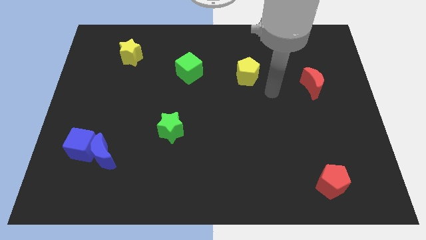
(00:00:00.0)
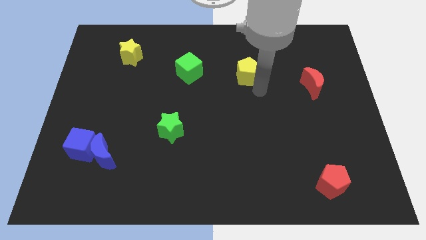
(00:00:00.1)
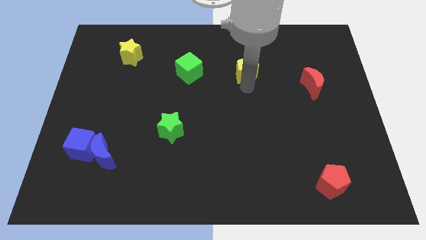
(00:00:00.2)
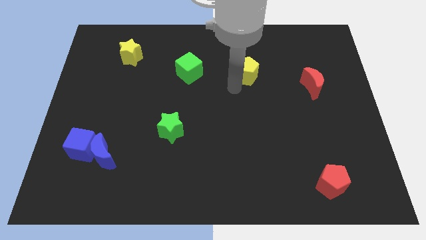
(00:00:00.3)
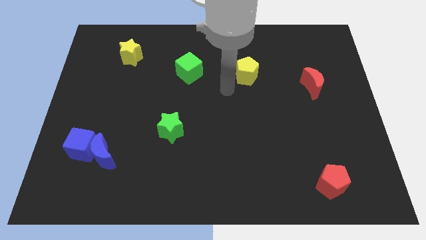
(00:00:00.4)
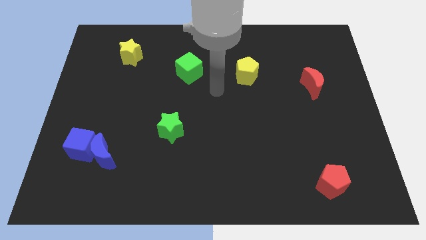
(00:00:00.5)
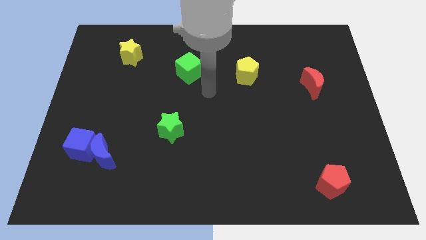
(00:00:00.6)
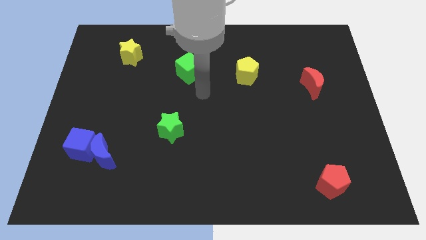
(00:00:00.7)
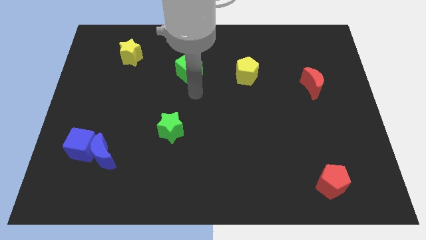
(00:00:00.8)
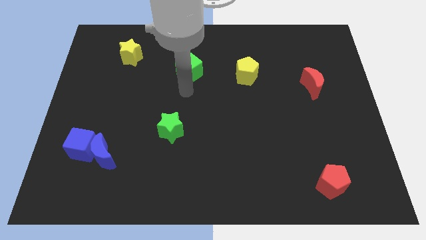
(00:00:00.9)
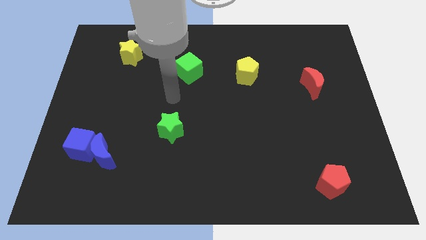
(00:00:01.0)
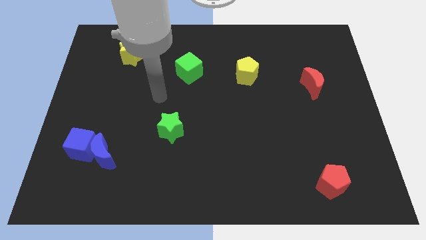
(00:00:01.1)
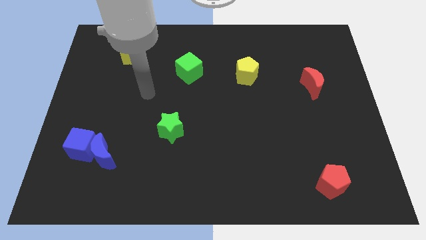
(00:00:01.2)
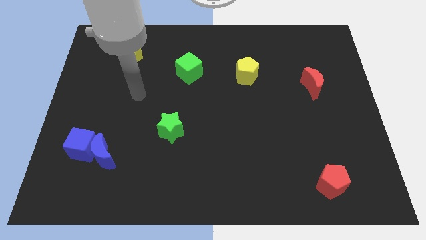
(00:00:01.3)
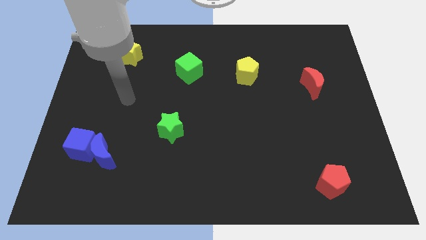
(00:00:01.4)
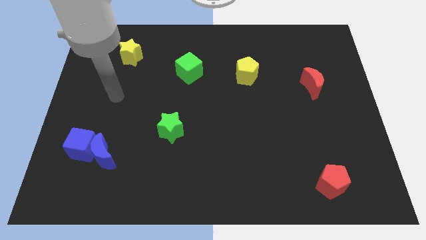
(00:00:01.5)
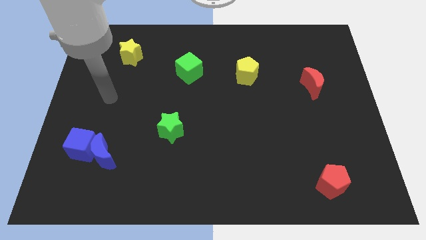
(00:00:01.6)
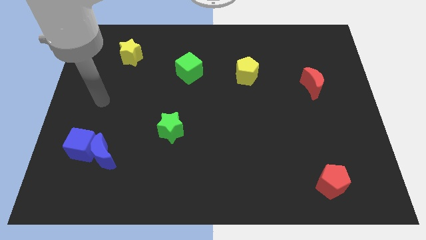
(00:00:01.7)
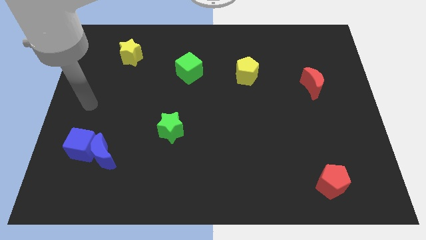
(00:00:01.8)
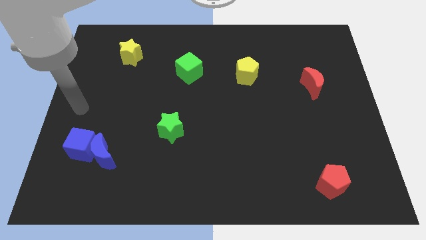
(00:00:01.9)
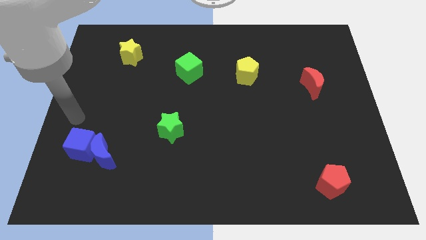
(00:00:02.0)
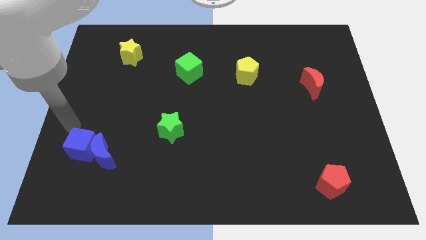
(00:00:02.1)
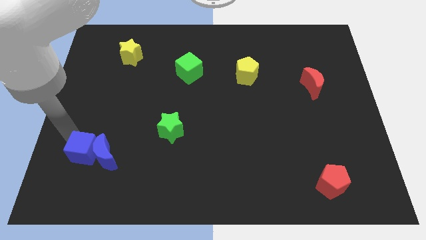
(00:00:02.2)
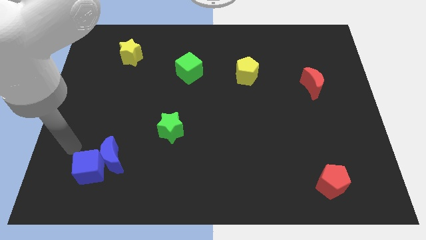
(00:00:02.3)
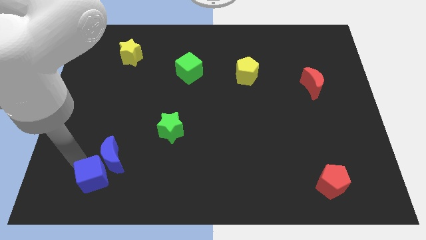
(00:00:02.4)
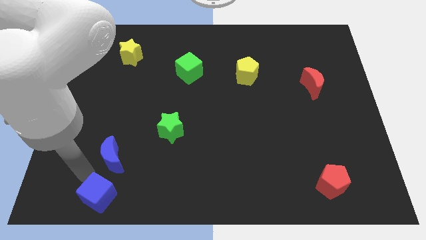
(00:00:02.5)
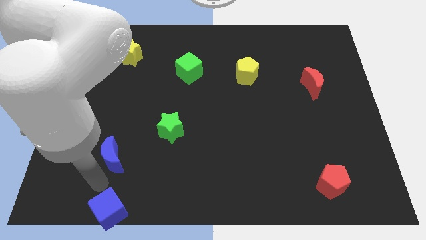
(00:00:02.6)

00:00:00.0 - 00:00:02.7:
pull the blue moon apart from the blue cube

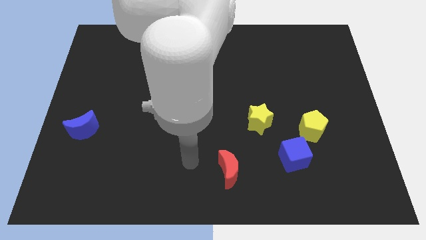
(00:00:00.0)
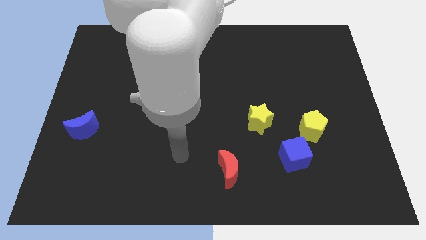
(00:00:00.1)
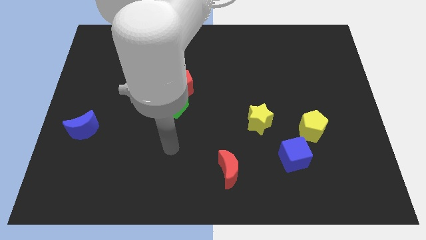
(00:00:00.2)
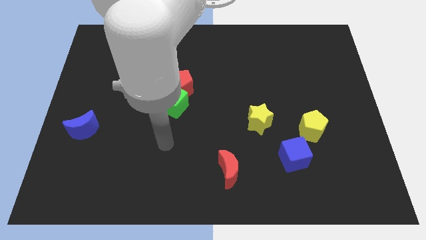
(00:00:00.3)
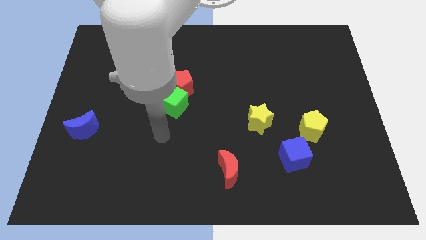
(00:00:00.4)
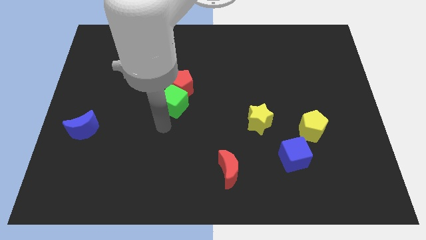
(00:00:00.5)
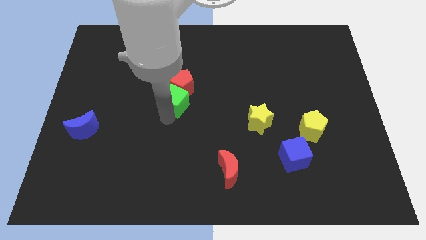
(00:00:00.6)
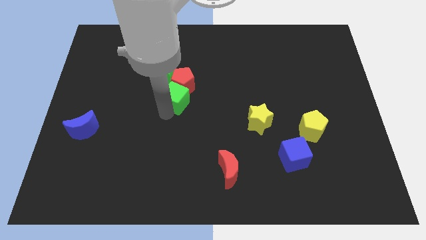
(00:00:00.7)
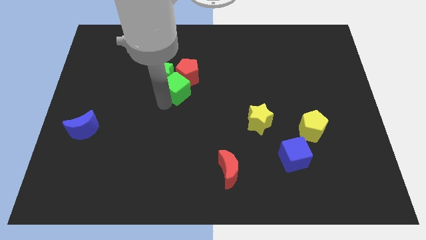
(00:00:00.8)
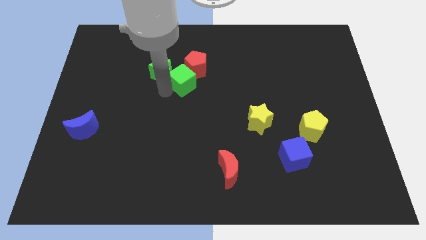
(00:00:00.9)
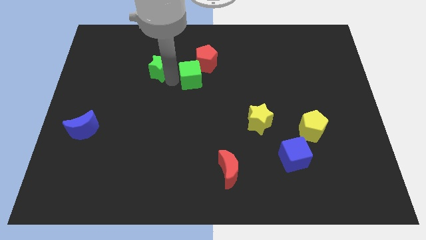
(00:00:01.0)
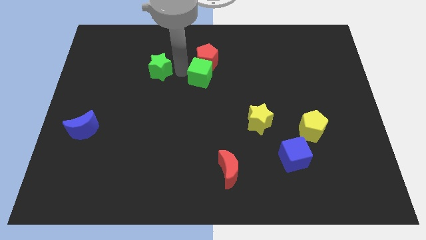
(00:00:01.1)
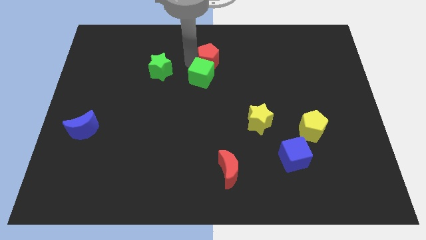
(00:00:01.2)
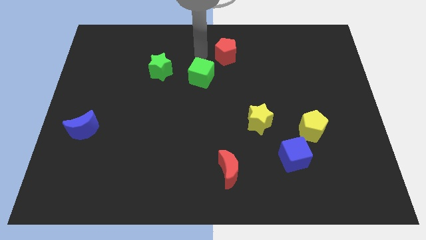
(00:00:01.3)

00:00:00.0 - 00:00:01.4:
move the red pentagon away from the green cube and green star

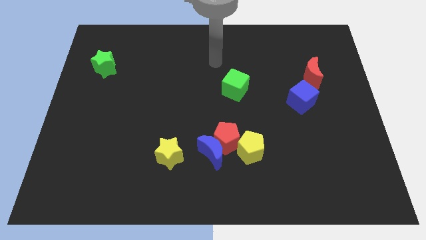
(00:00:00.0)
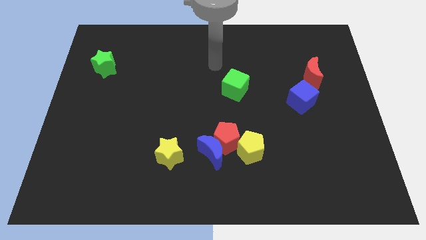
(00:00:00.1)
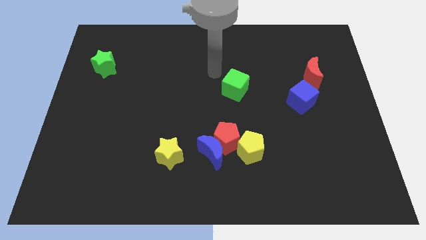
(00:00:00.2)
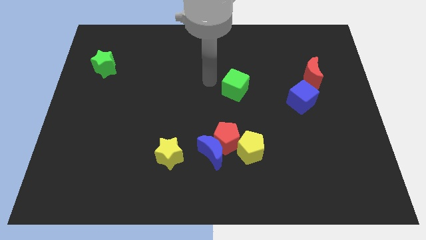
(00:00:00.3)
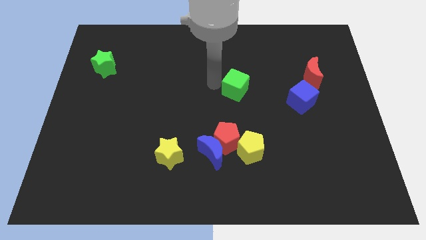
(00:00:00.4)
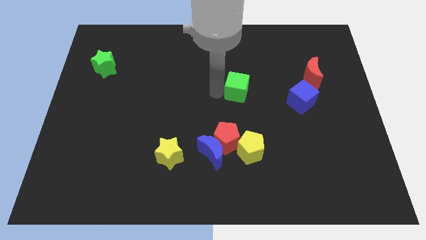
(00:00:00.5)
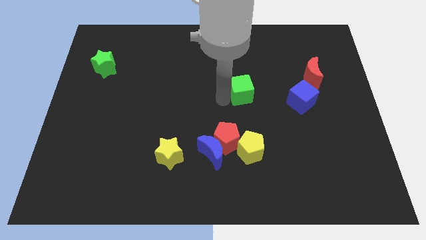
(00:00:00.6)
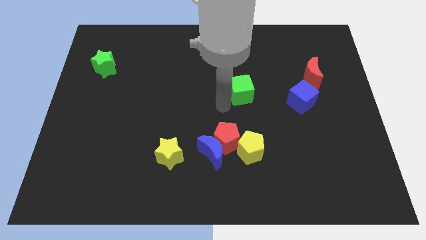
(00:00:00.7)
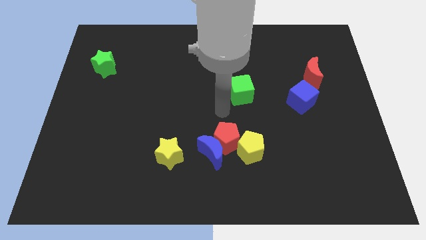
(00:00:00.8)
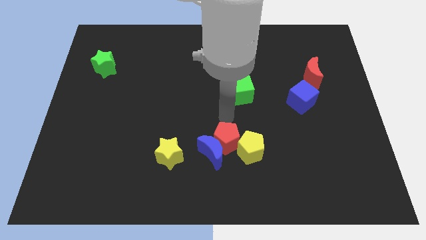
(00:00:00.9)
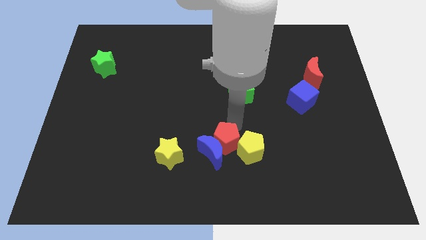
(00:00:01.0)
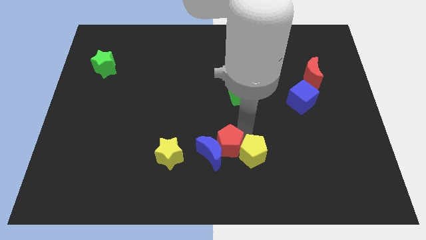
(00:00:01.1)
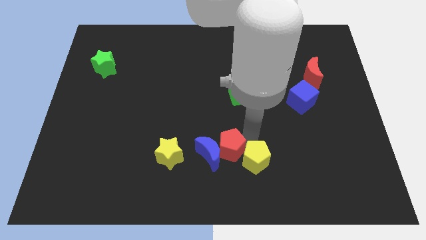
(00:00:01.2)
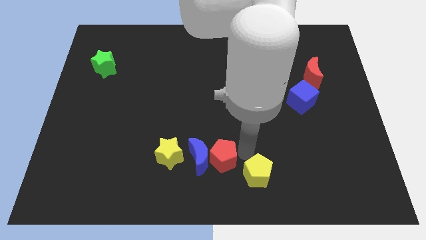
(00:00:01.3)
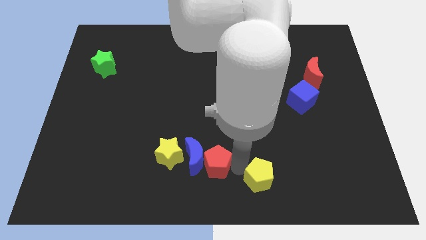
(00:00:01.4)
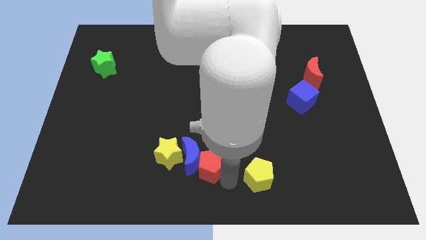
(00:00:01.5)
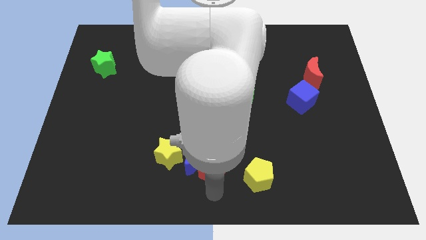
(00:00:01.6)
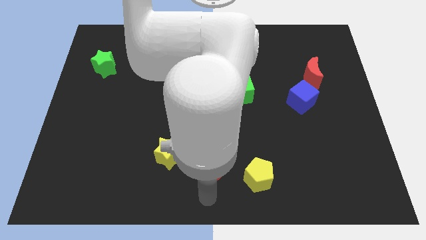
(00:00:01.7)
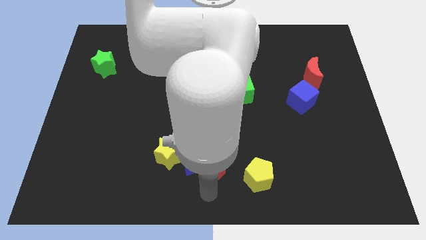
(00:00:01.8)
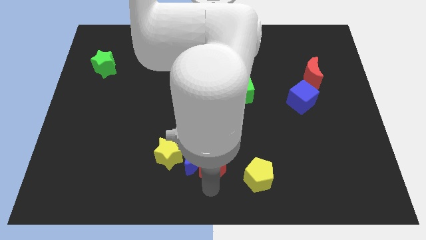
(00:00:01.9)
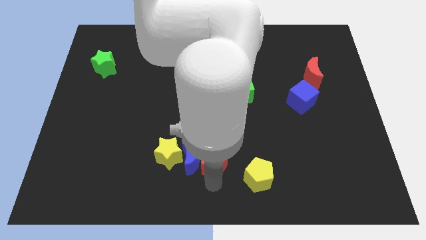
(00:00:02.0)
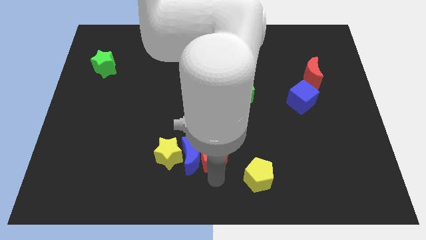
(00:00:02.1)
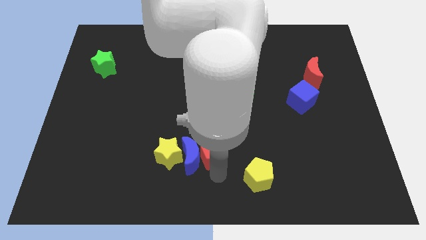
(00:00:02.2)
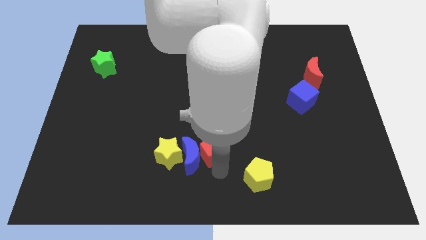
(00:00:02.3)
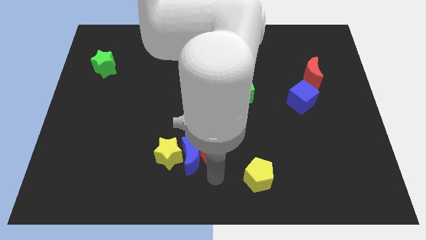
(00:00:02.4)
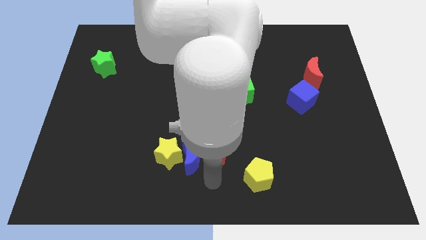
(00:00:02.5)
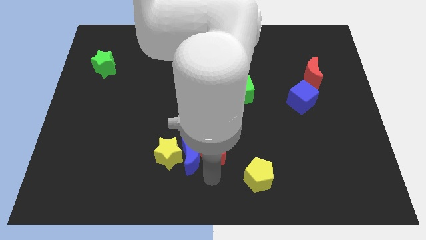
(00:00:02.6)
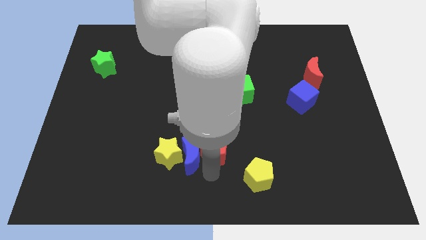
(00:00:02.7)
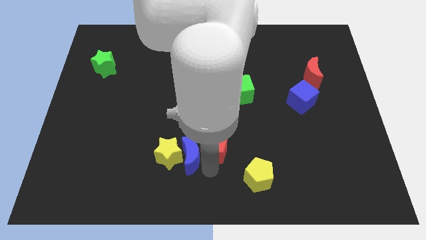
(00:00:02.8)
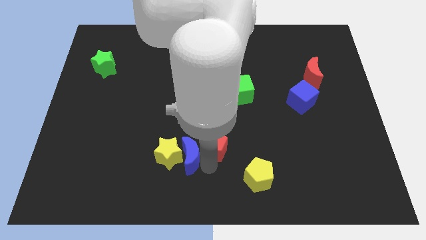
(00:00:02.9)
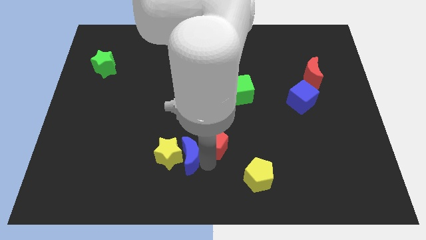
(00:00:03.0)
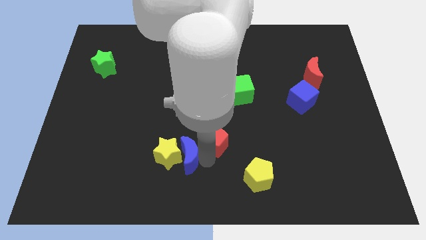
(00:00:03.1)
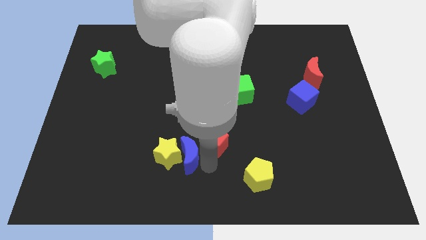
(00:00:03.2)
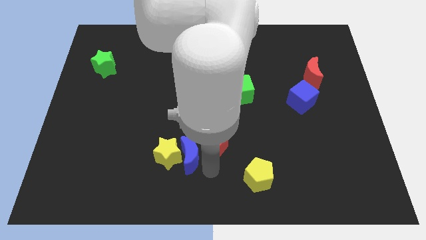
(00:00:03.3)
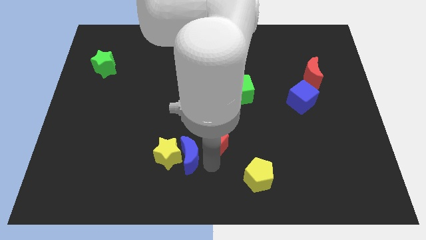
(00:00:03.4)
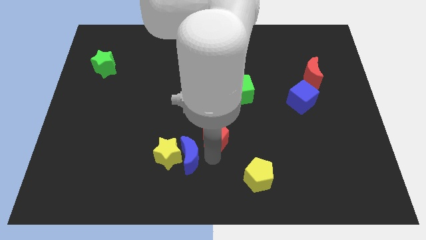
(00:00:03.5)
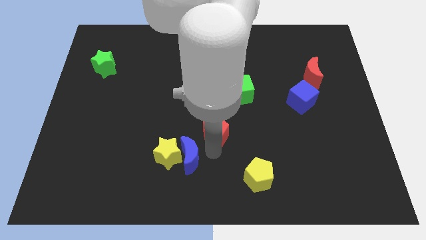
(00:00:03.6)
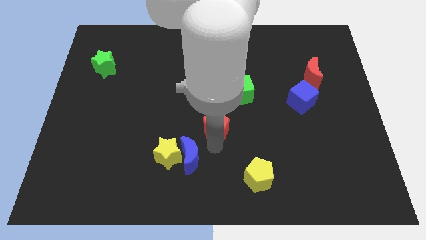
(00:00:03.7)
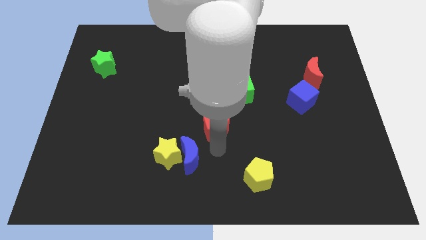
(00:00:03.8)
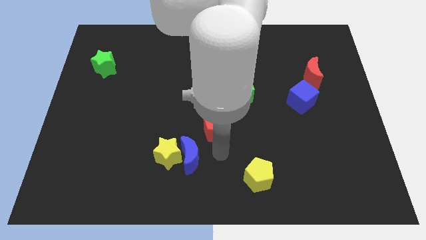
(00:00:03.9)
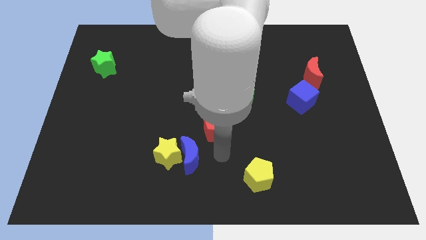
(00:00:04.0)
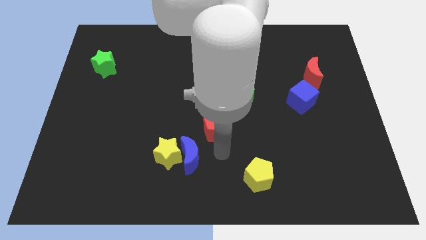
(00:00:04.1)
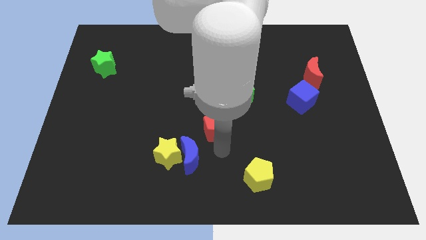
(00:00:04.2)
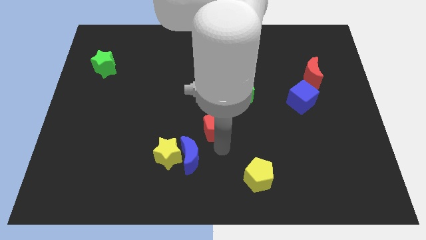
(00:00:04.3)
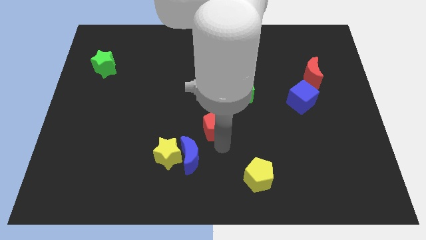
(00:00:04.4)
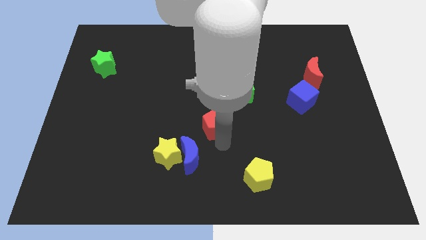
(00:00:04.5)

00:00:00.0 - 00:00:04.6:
separate the red pentagon from the blue moon and yellow pentagon

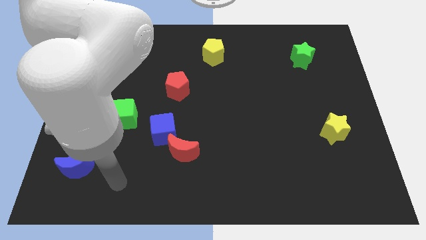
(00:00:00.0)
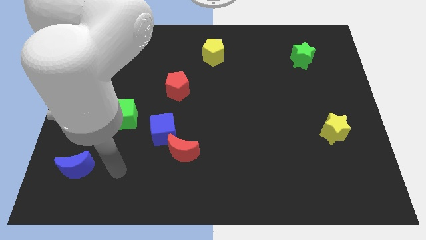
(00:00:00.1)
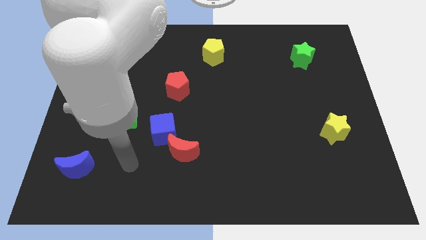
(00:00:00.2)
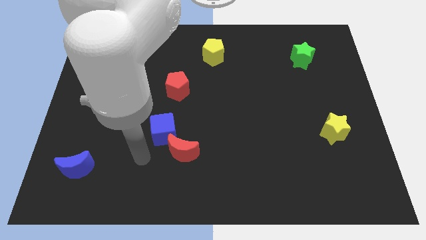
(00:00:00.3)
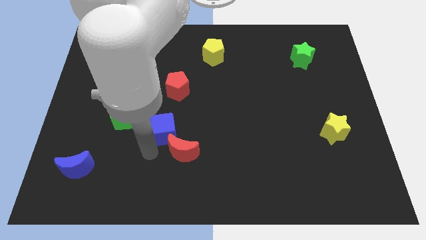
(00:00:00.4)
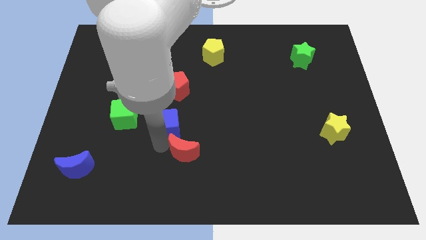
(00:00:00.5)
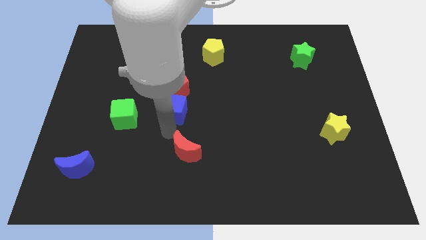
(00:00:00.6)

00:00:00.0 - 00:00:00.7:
move the red moon away from the blue cube
